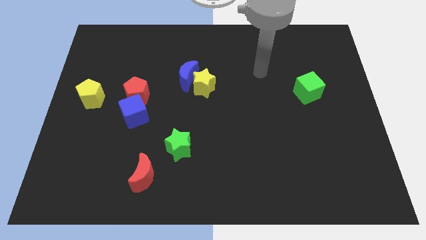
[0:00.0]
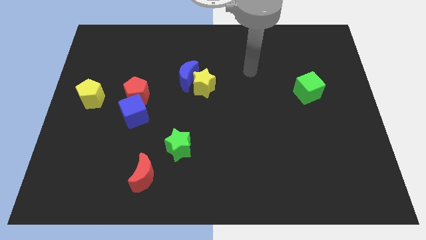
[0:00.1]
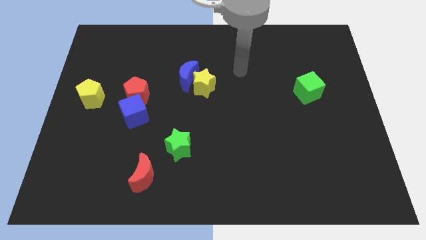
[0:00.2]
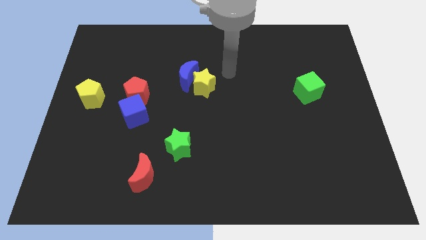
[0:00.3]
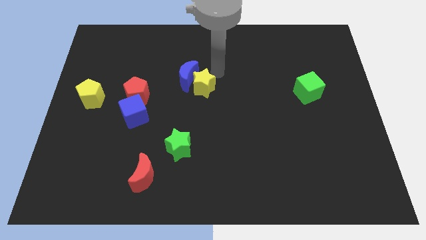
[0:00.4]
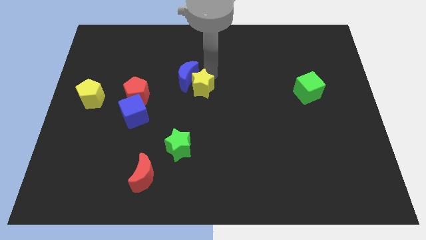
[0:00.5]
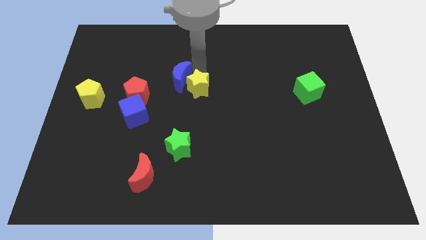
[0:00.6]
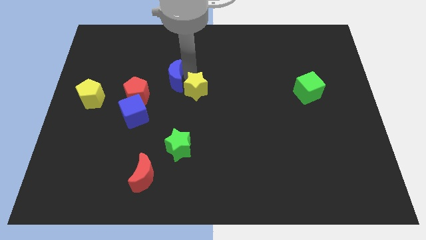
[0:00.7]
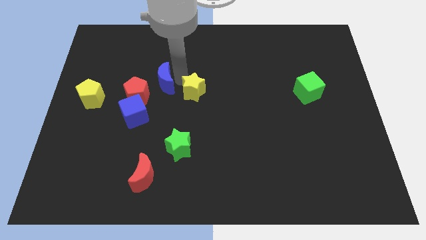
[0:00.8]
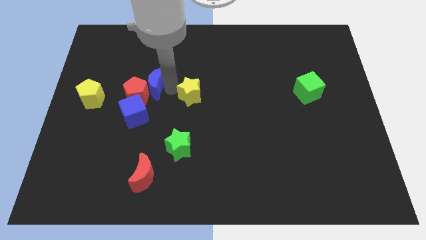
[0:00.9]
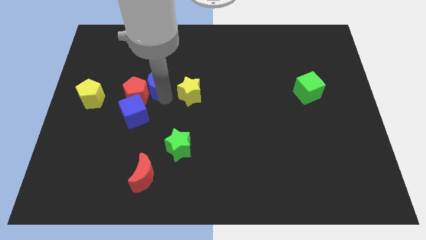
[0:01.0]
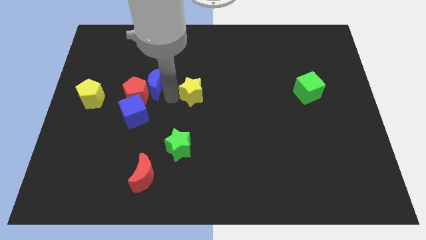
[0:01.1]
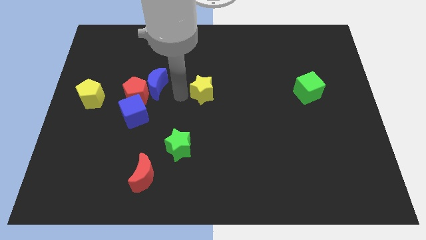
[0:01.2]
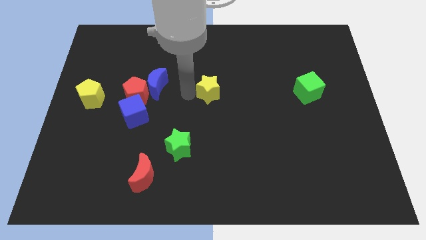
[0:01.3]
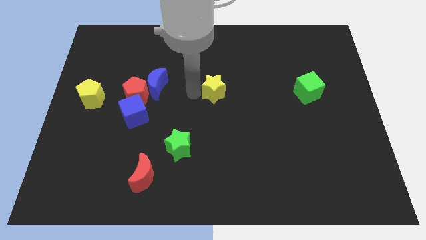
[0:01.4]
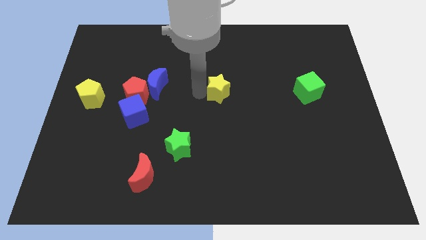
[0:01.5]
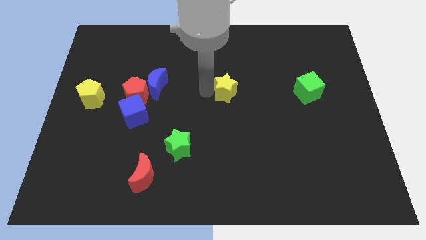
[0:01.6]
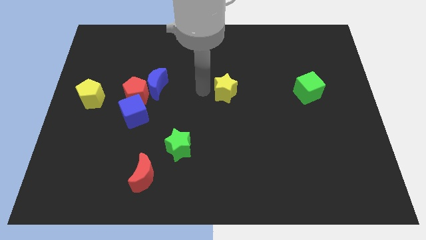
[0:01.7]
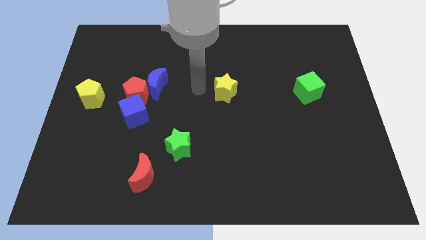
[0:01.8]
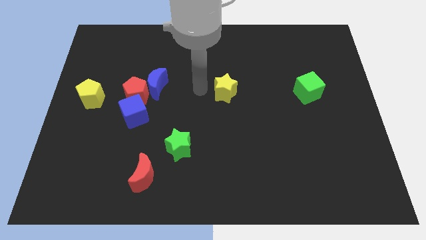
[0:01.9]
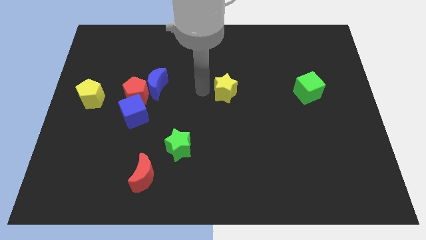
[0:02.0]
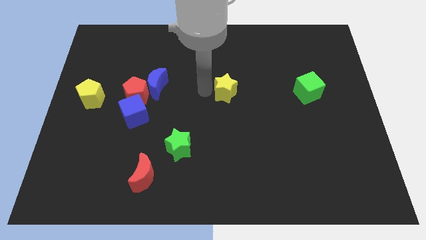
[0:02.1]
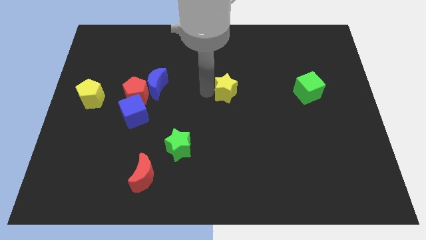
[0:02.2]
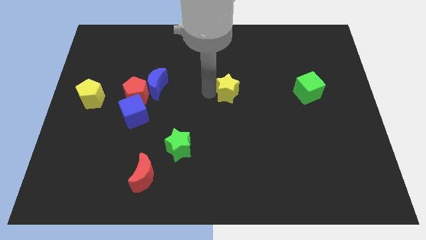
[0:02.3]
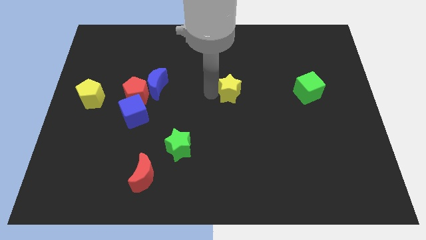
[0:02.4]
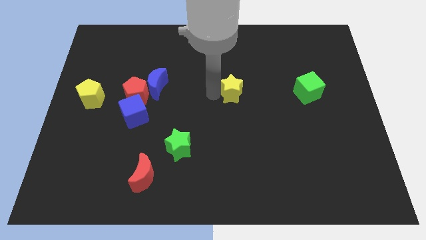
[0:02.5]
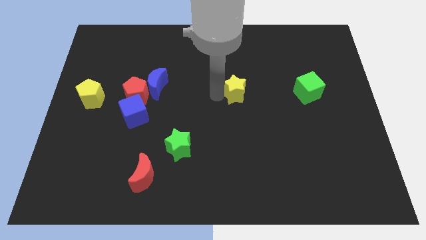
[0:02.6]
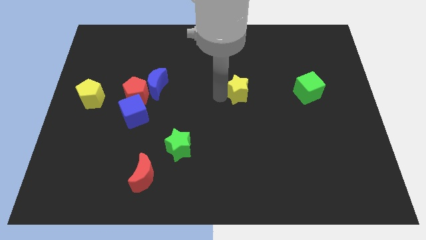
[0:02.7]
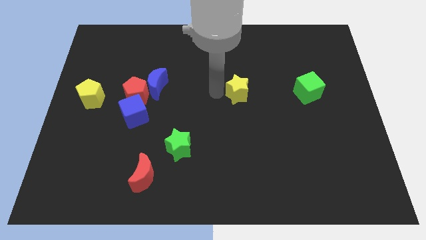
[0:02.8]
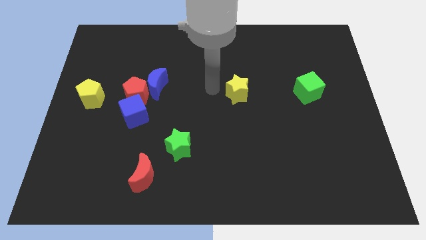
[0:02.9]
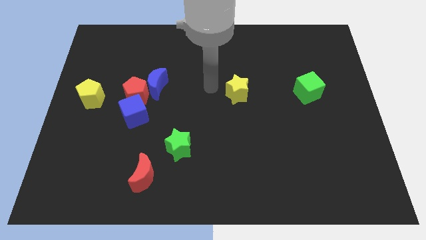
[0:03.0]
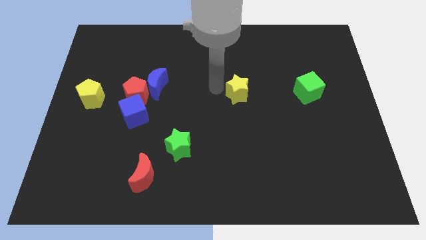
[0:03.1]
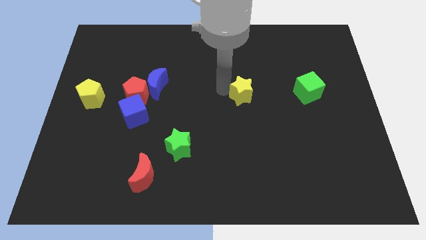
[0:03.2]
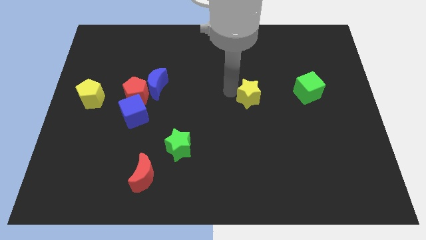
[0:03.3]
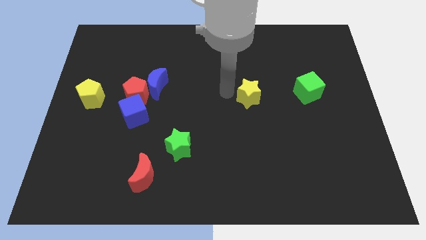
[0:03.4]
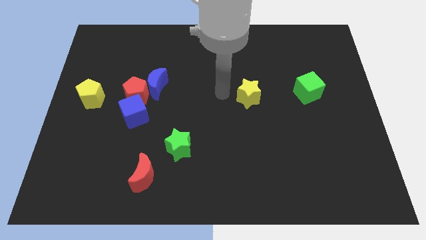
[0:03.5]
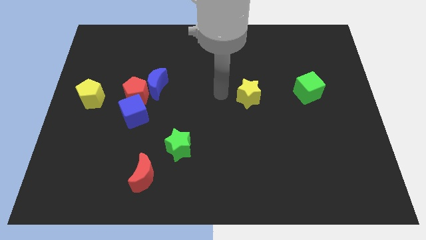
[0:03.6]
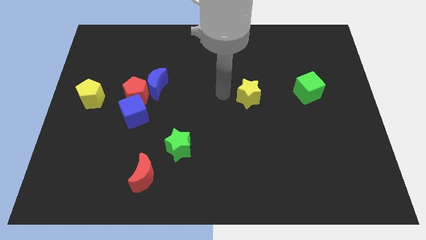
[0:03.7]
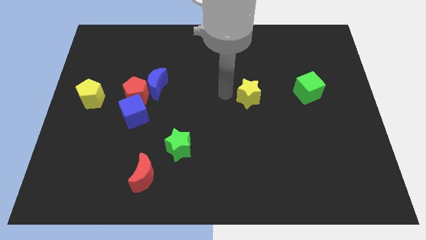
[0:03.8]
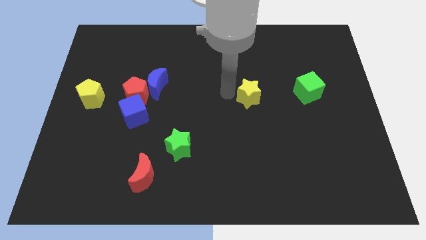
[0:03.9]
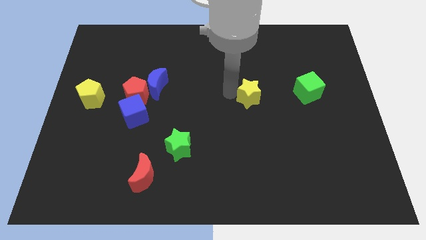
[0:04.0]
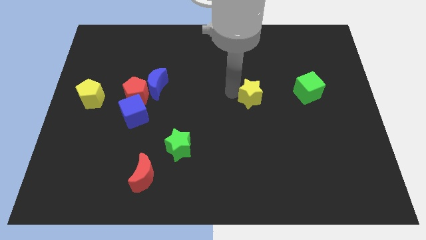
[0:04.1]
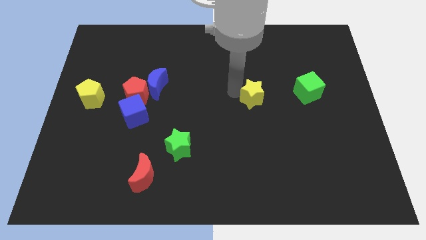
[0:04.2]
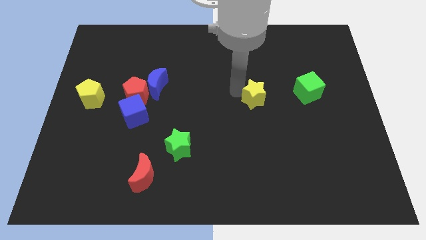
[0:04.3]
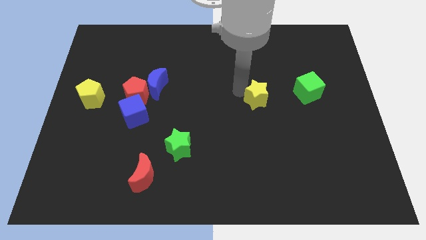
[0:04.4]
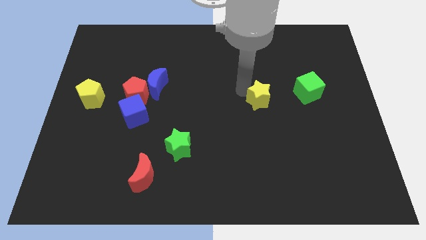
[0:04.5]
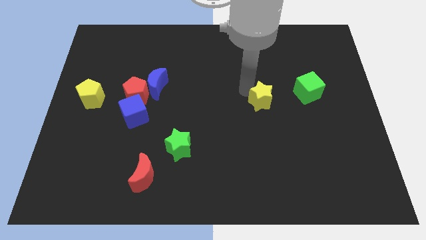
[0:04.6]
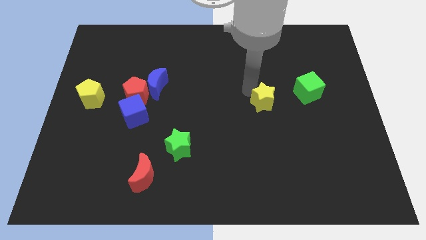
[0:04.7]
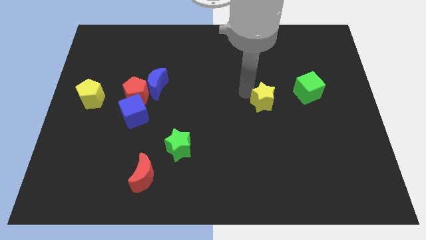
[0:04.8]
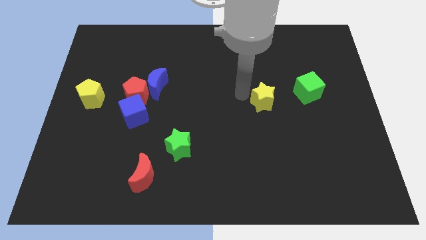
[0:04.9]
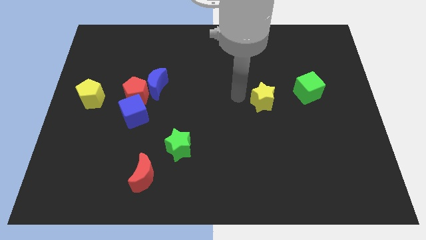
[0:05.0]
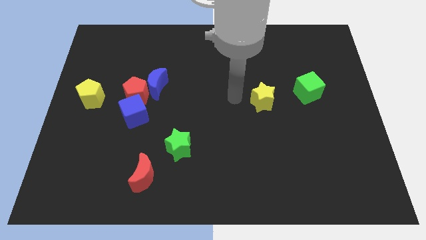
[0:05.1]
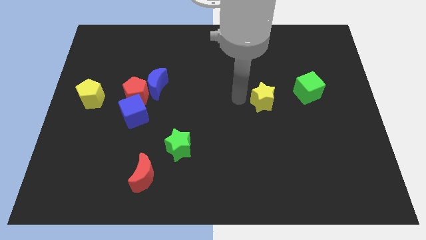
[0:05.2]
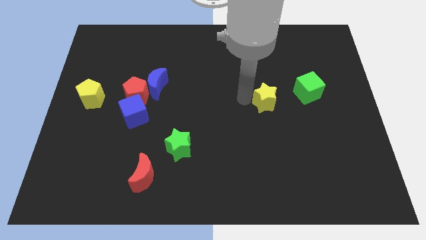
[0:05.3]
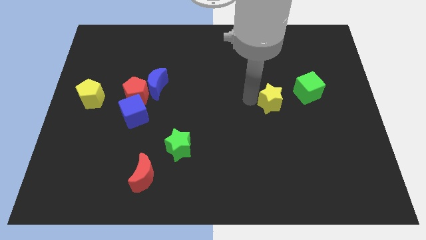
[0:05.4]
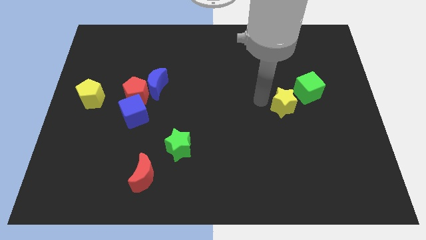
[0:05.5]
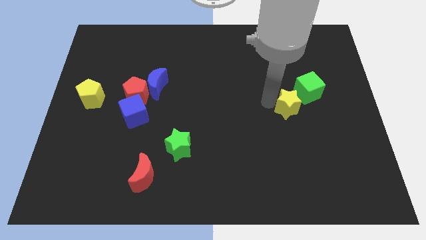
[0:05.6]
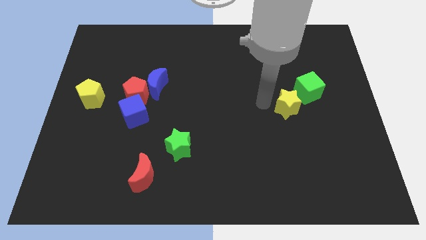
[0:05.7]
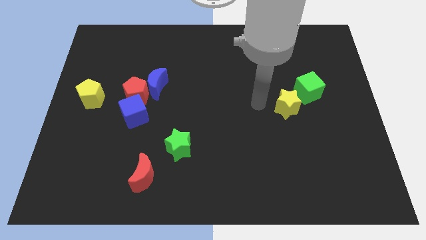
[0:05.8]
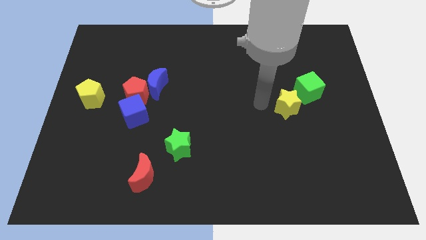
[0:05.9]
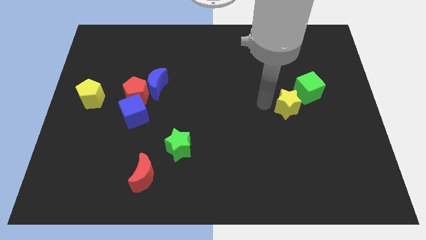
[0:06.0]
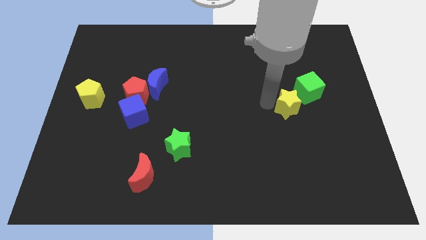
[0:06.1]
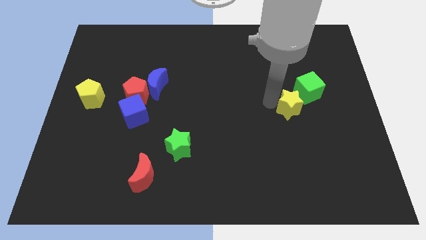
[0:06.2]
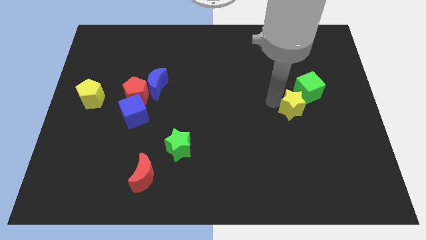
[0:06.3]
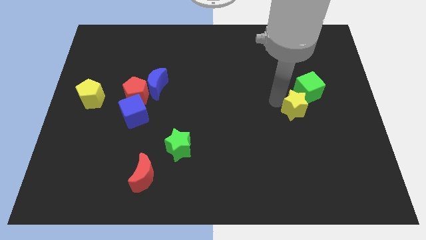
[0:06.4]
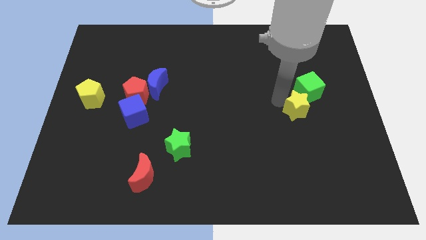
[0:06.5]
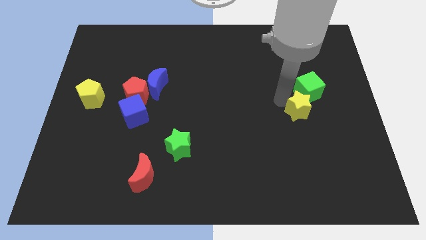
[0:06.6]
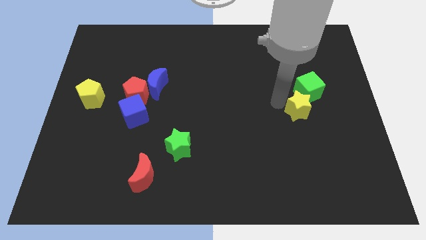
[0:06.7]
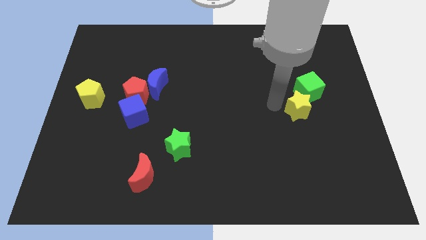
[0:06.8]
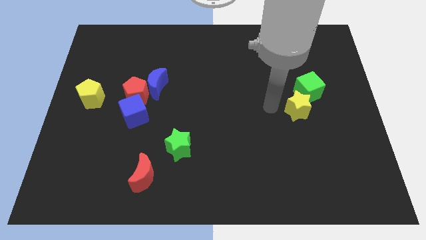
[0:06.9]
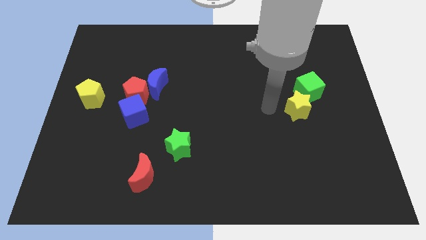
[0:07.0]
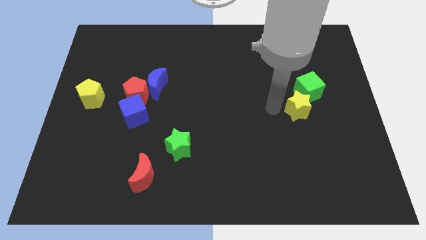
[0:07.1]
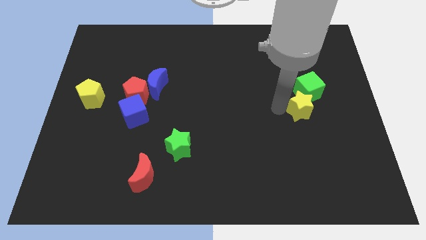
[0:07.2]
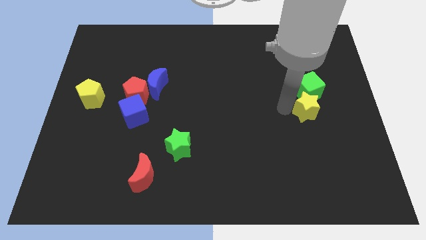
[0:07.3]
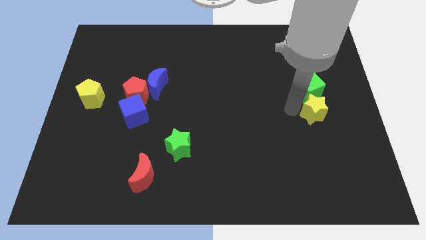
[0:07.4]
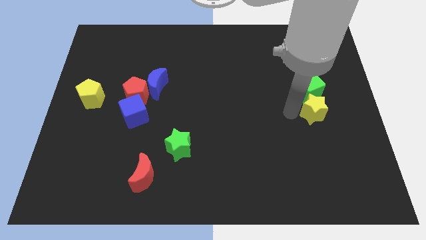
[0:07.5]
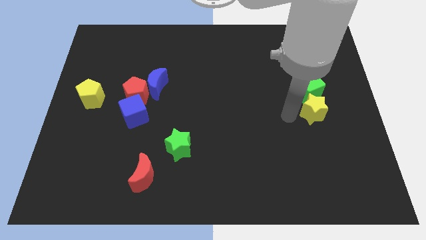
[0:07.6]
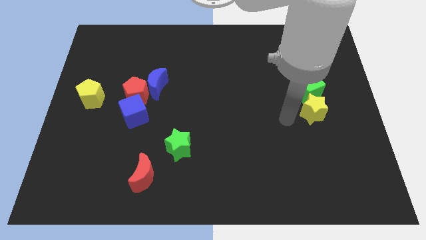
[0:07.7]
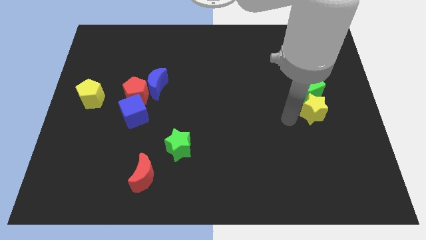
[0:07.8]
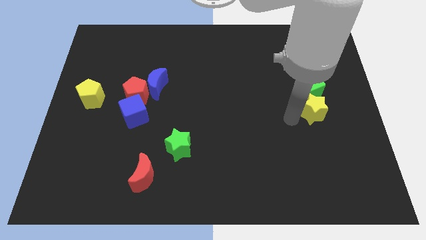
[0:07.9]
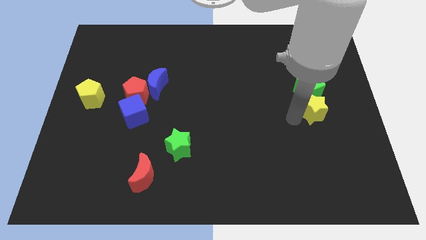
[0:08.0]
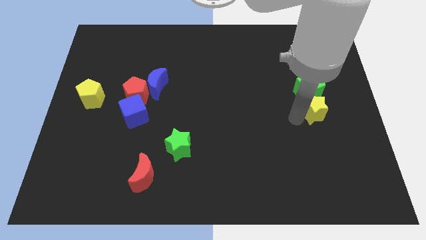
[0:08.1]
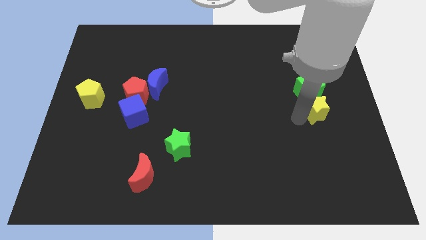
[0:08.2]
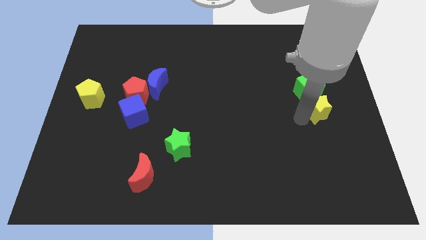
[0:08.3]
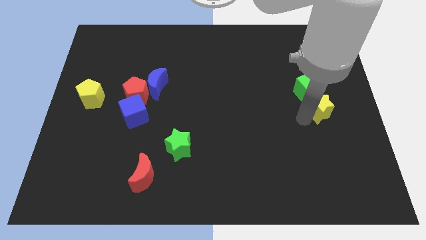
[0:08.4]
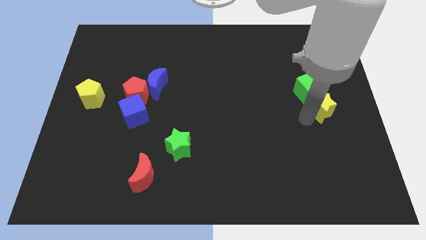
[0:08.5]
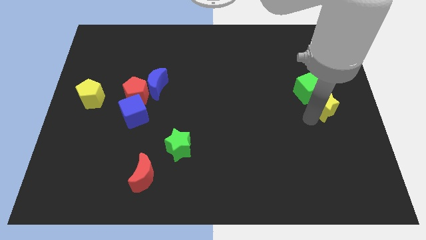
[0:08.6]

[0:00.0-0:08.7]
push the yellow star to the center right
